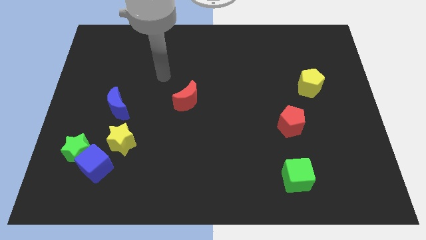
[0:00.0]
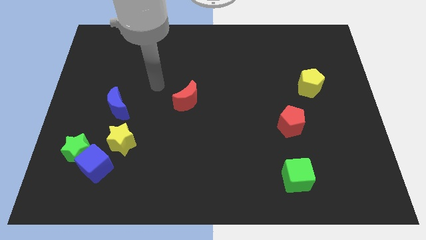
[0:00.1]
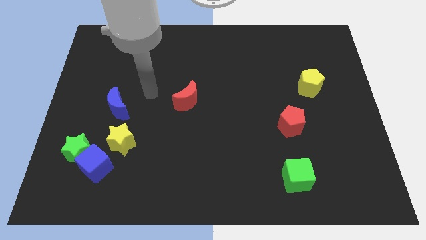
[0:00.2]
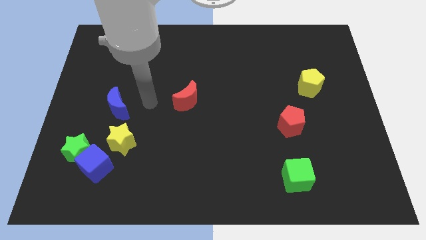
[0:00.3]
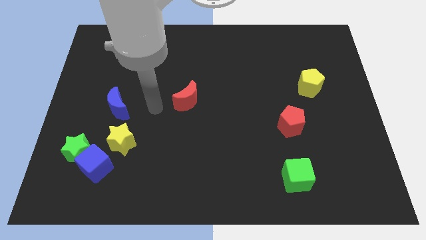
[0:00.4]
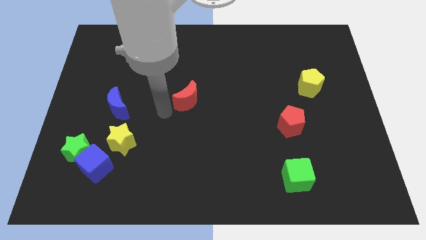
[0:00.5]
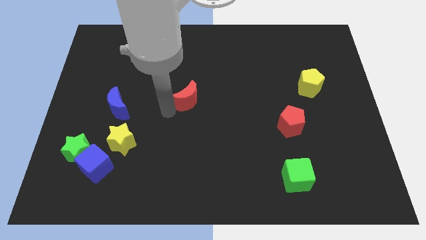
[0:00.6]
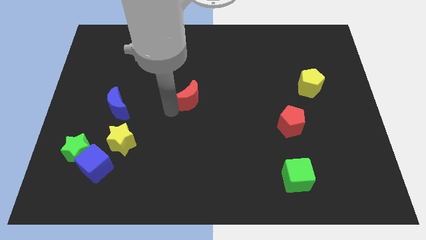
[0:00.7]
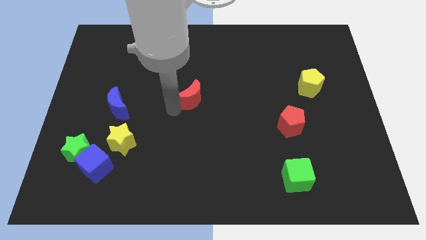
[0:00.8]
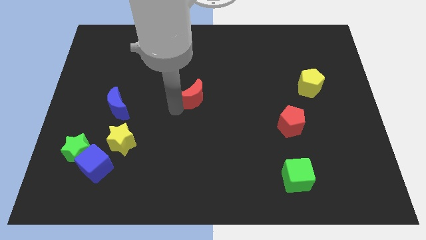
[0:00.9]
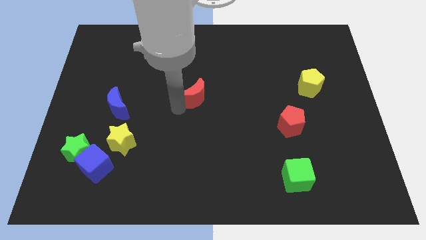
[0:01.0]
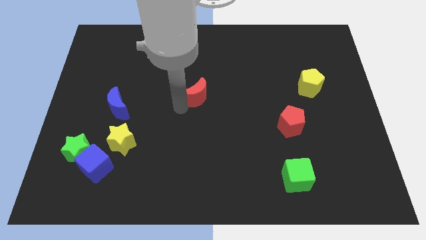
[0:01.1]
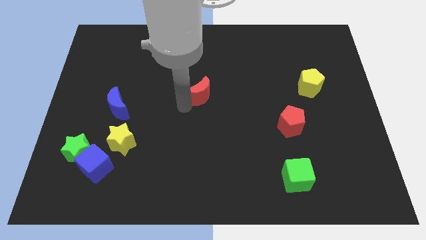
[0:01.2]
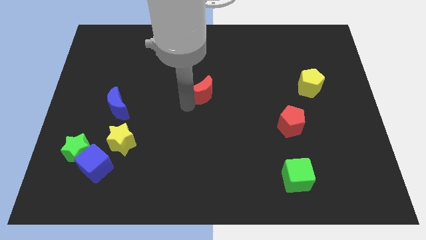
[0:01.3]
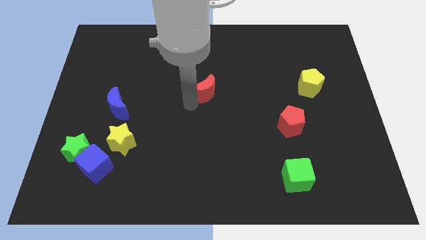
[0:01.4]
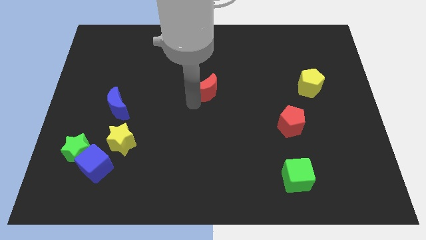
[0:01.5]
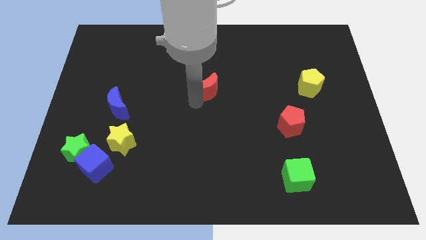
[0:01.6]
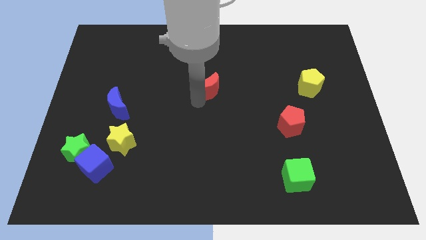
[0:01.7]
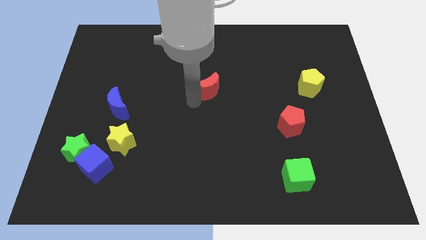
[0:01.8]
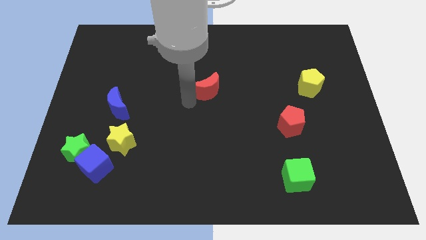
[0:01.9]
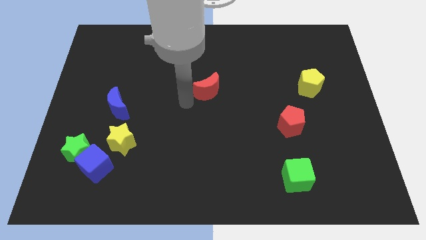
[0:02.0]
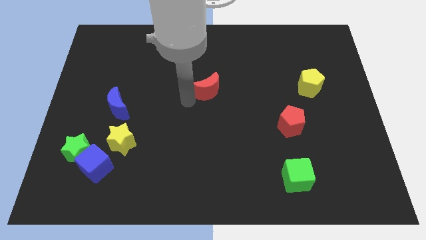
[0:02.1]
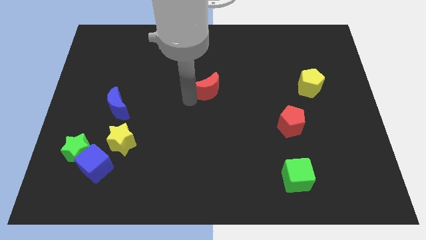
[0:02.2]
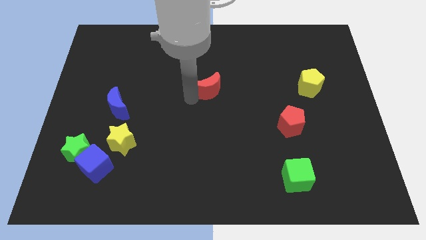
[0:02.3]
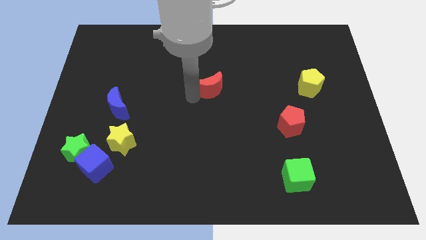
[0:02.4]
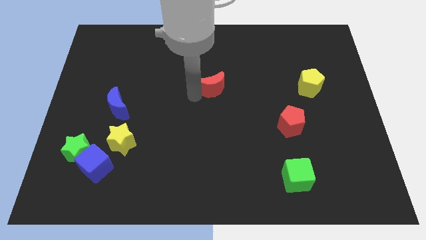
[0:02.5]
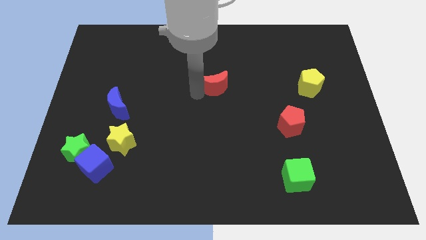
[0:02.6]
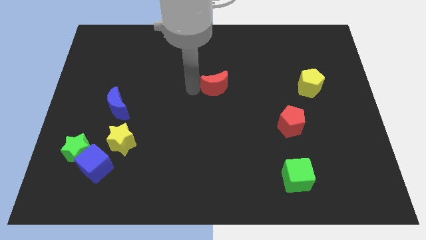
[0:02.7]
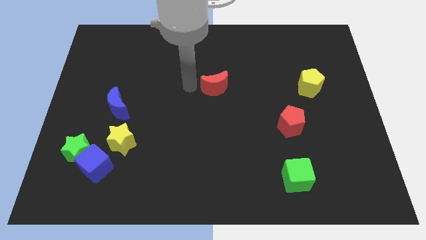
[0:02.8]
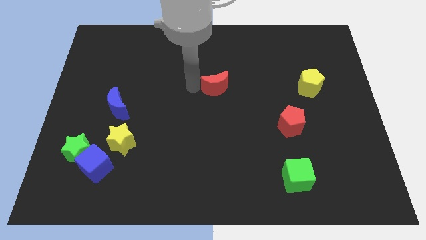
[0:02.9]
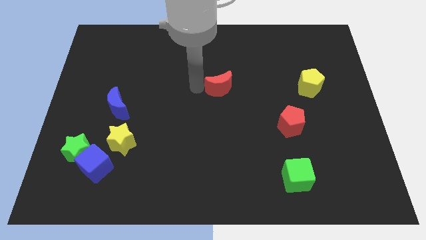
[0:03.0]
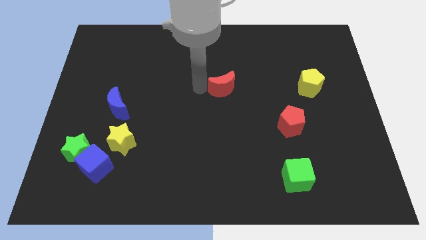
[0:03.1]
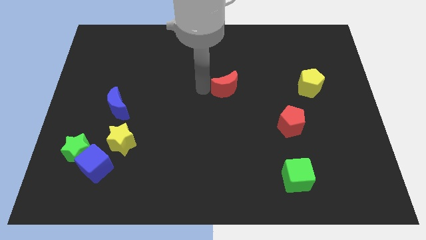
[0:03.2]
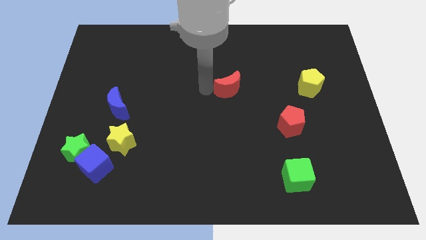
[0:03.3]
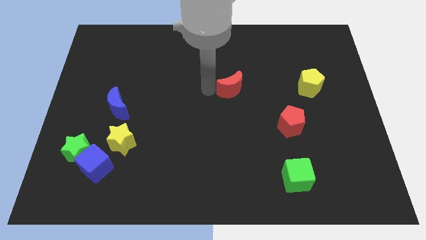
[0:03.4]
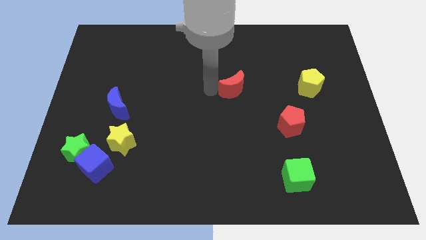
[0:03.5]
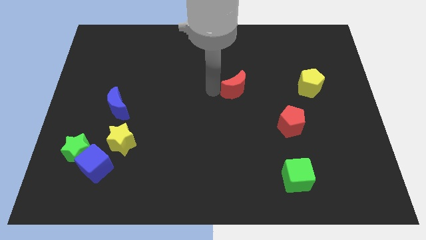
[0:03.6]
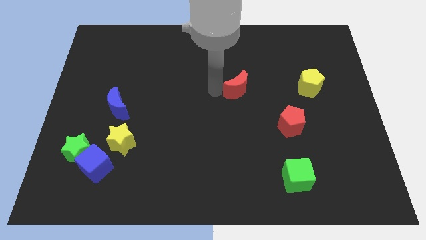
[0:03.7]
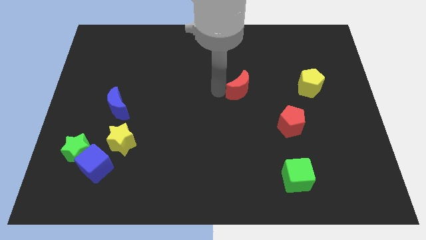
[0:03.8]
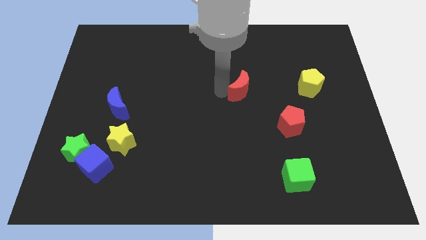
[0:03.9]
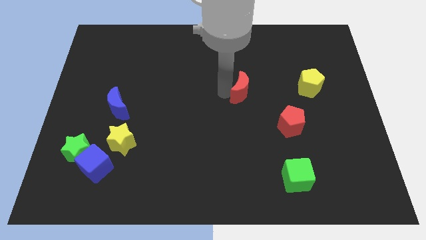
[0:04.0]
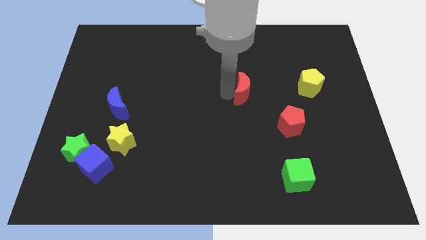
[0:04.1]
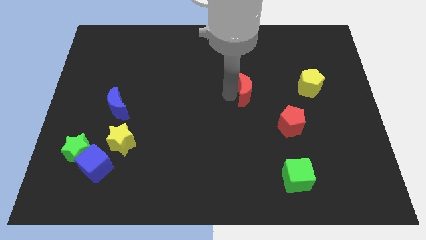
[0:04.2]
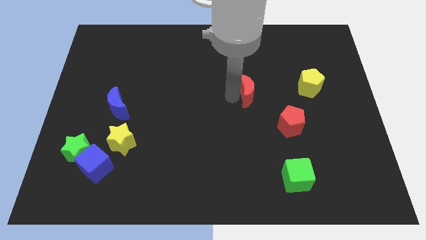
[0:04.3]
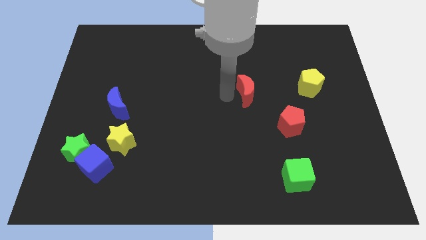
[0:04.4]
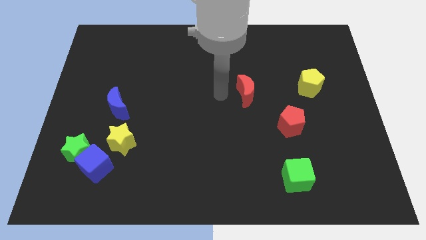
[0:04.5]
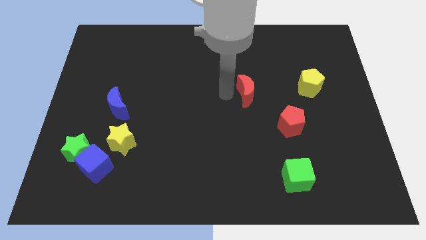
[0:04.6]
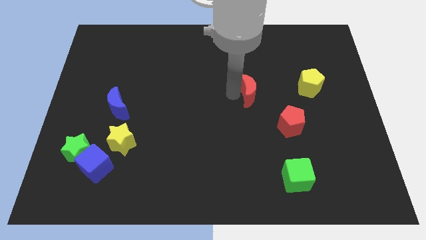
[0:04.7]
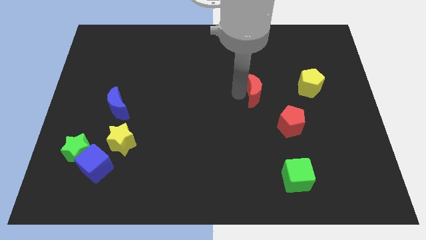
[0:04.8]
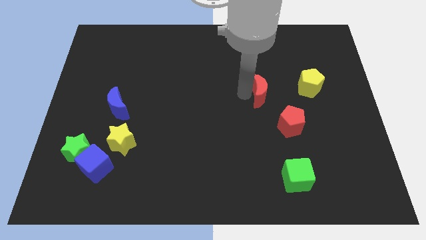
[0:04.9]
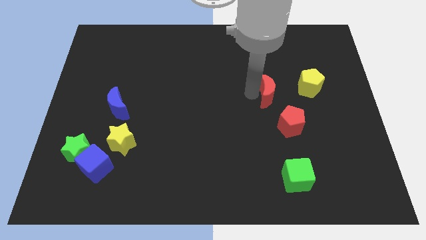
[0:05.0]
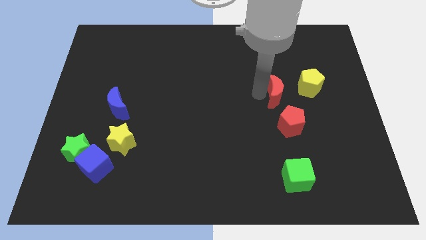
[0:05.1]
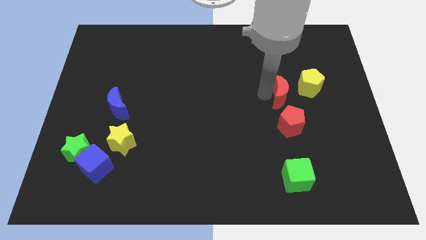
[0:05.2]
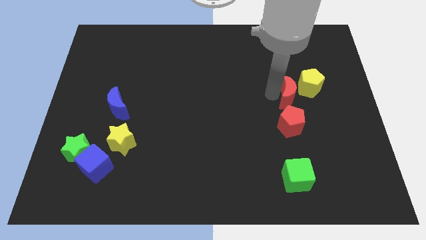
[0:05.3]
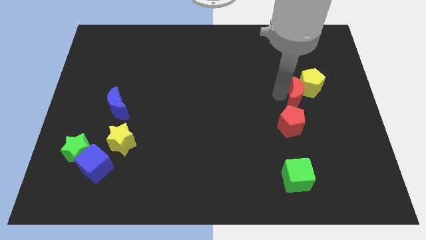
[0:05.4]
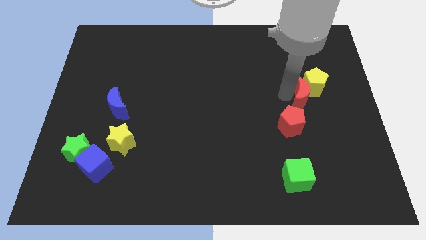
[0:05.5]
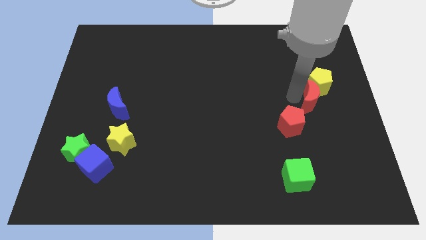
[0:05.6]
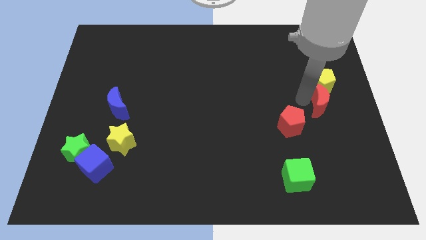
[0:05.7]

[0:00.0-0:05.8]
put the red moon diagonally down and to the right of the yellow pentagon

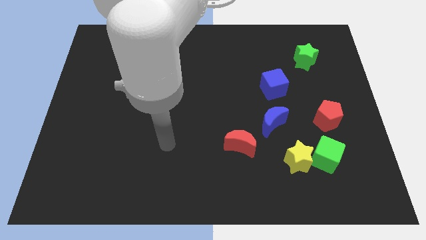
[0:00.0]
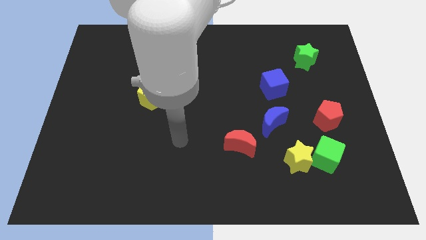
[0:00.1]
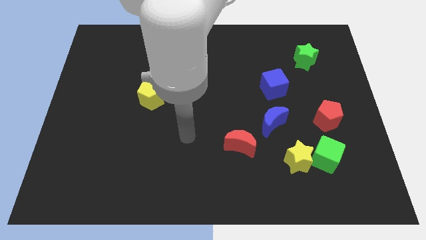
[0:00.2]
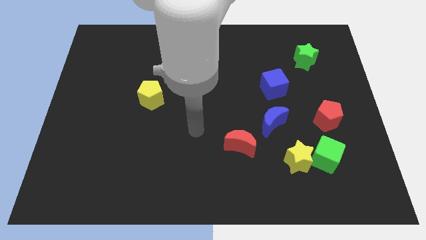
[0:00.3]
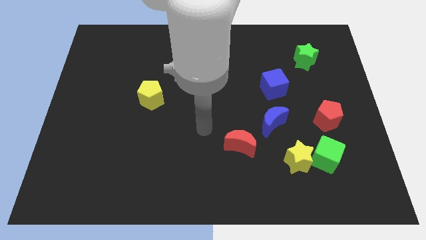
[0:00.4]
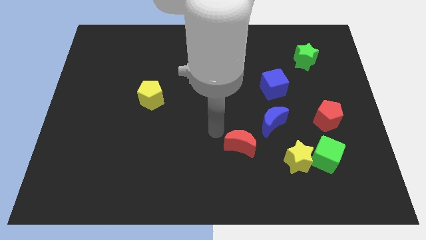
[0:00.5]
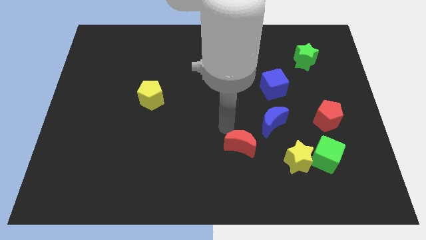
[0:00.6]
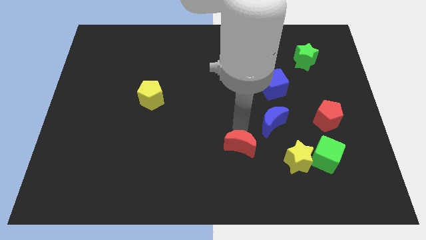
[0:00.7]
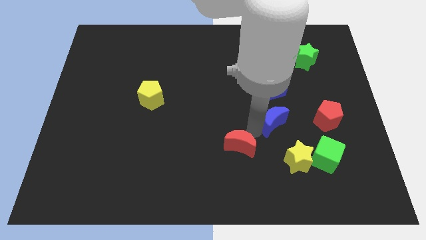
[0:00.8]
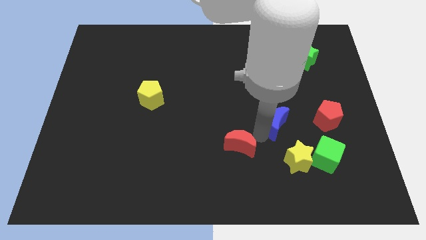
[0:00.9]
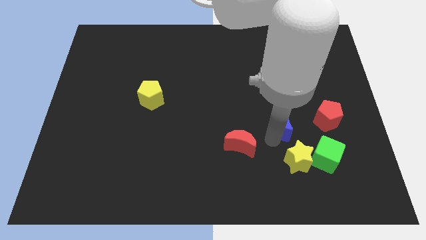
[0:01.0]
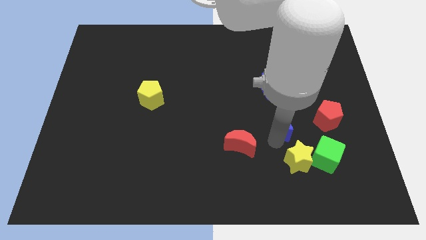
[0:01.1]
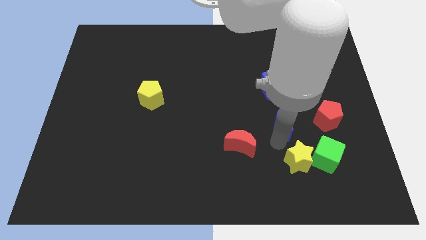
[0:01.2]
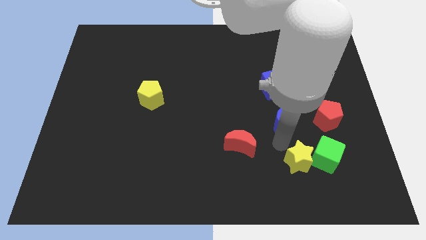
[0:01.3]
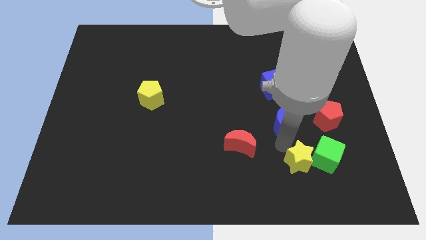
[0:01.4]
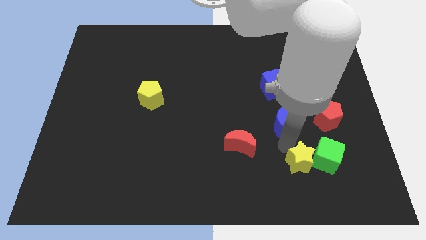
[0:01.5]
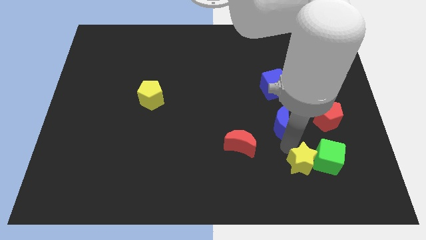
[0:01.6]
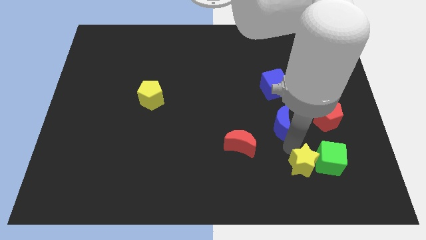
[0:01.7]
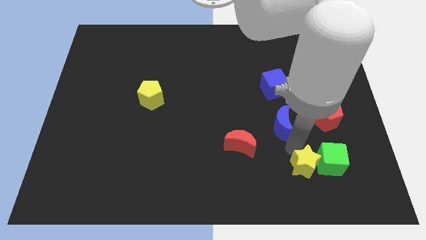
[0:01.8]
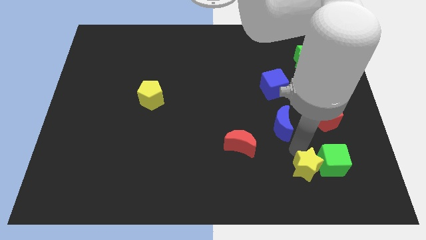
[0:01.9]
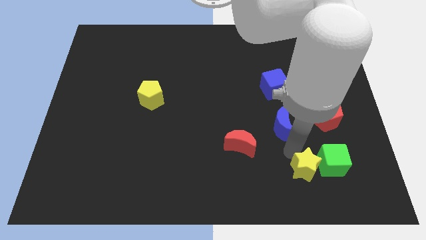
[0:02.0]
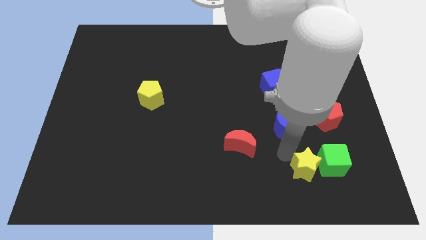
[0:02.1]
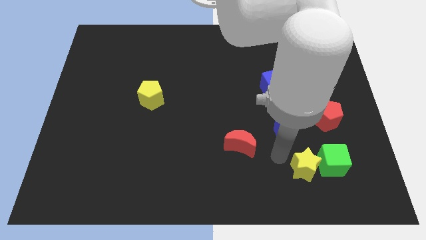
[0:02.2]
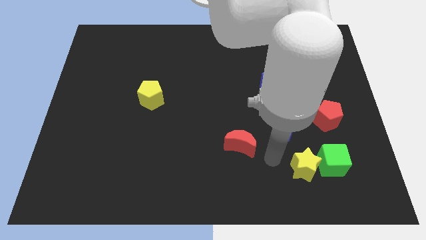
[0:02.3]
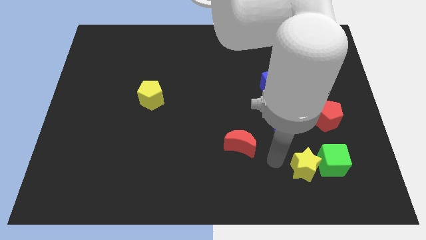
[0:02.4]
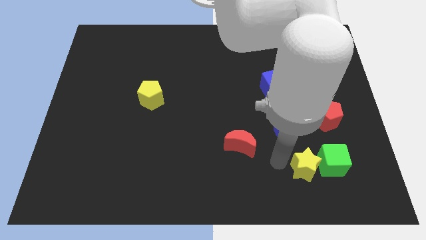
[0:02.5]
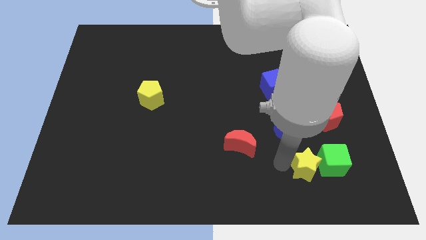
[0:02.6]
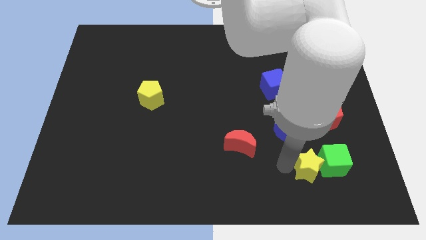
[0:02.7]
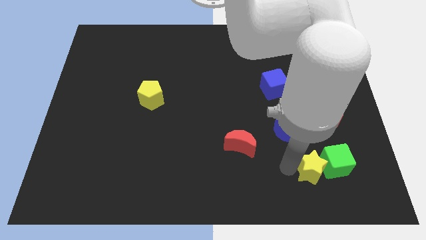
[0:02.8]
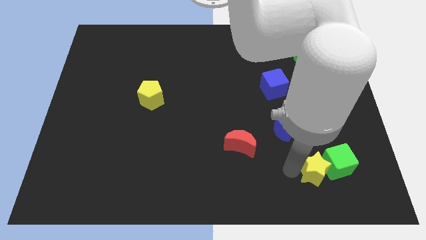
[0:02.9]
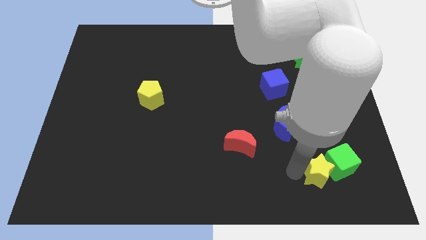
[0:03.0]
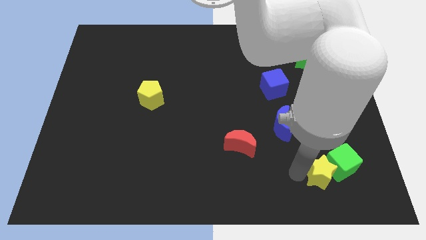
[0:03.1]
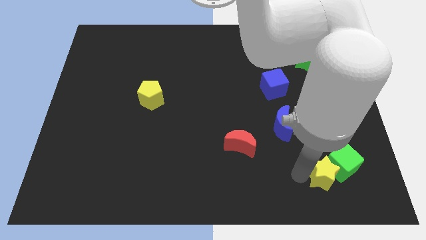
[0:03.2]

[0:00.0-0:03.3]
push the yellow star to the bottom side of the red pentagon
